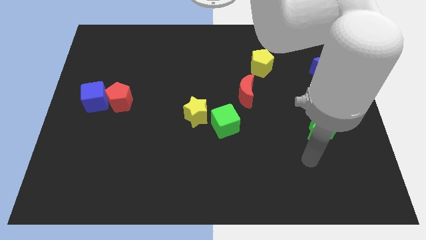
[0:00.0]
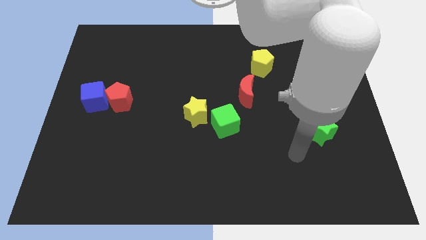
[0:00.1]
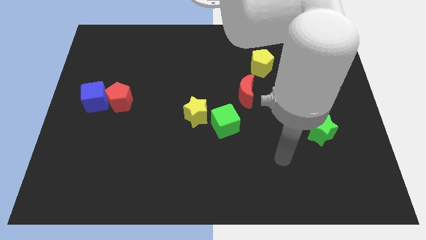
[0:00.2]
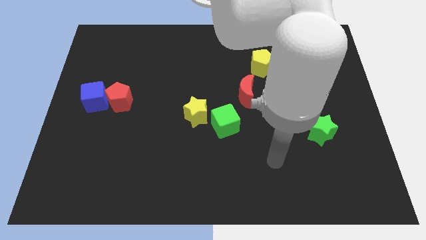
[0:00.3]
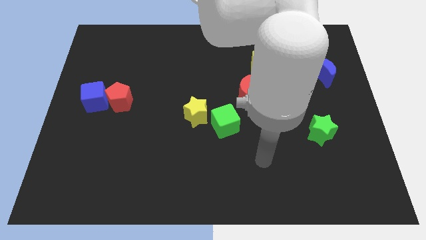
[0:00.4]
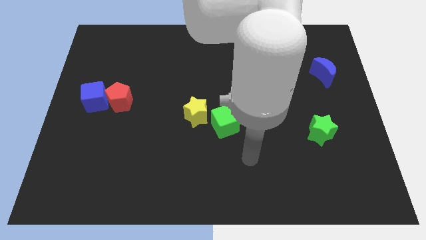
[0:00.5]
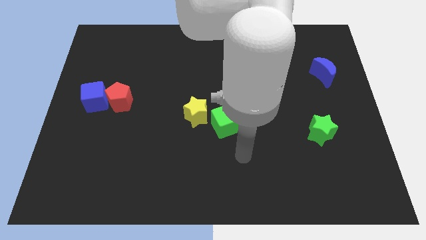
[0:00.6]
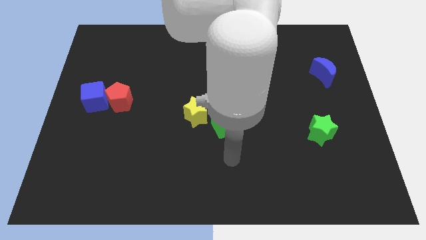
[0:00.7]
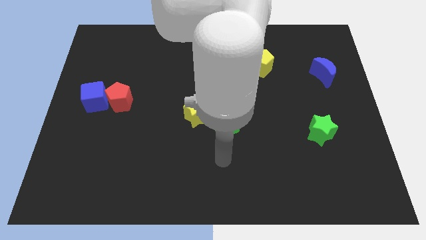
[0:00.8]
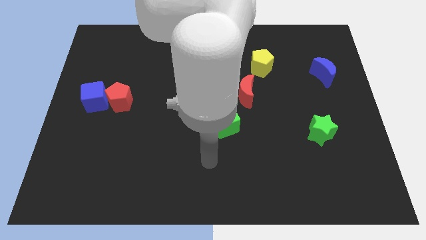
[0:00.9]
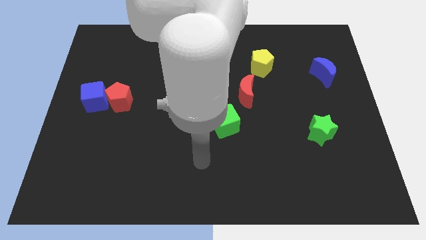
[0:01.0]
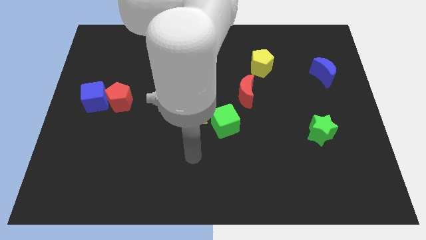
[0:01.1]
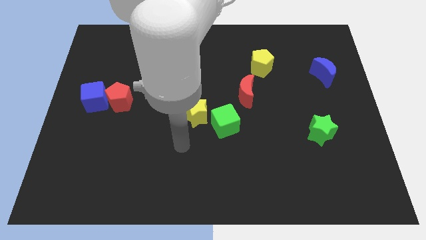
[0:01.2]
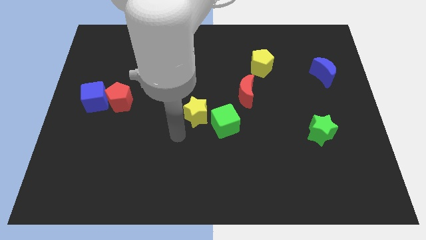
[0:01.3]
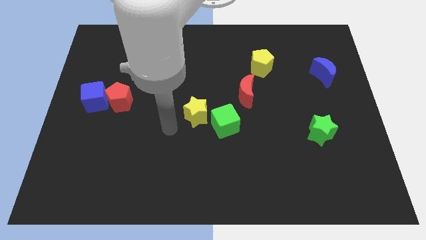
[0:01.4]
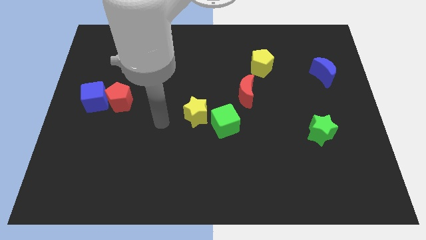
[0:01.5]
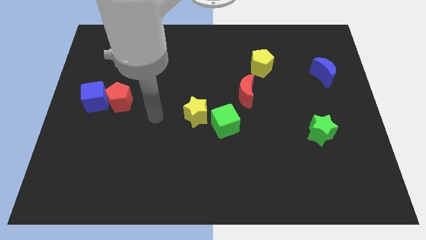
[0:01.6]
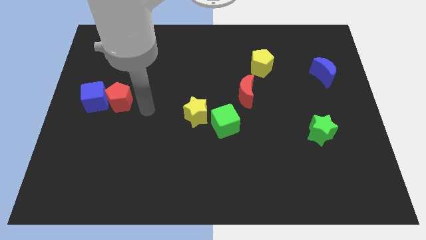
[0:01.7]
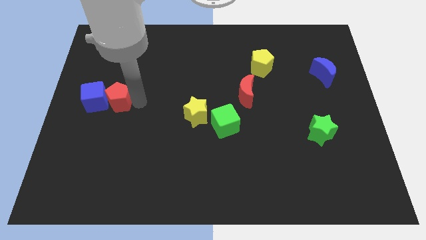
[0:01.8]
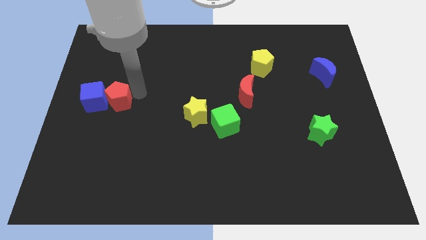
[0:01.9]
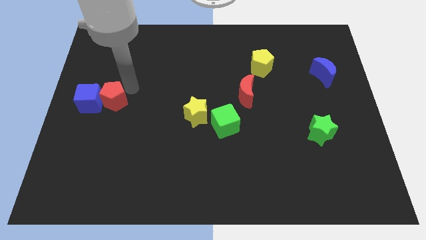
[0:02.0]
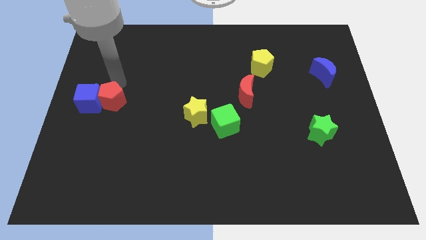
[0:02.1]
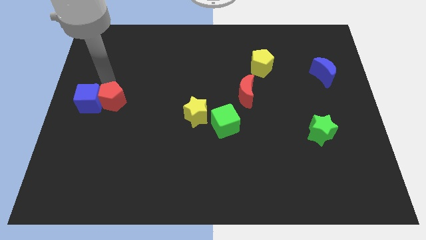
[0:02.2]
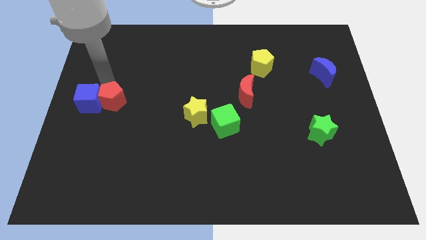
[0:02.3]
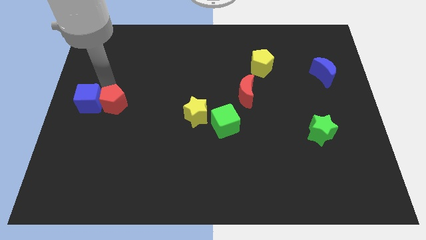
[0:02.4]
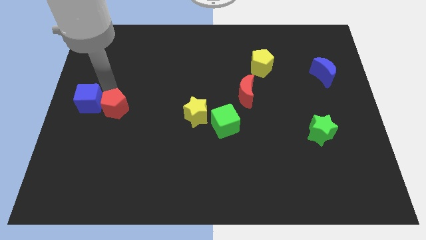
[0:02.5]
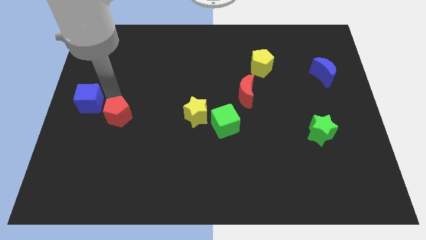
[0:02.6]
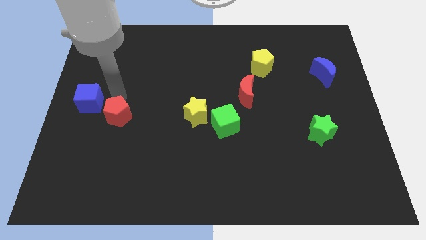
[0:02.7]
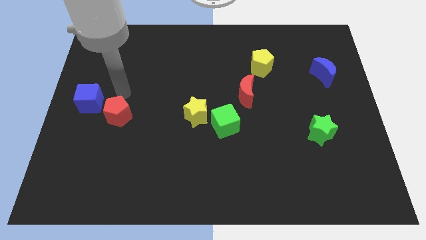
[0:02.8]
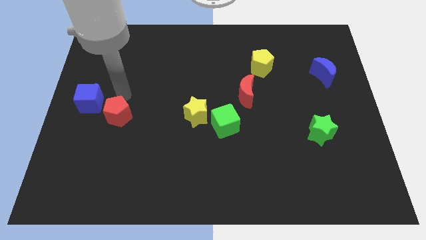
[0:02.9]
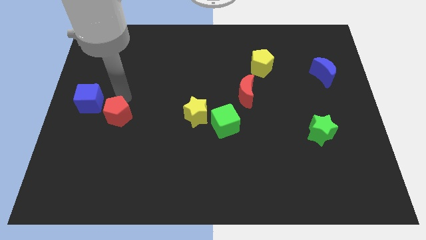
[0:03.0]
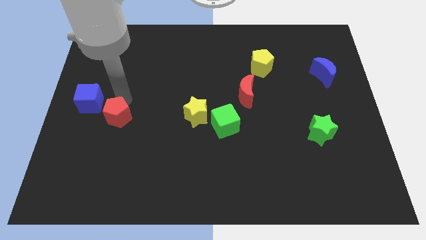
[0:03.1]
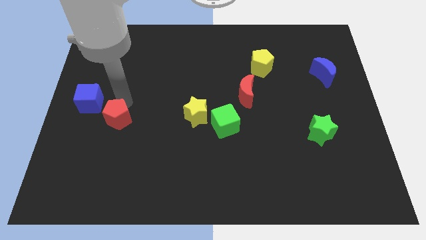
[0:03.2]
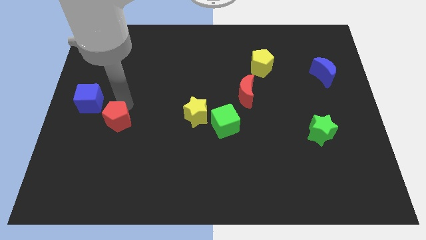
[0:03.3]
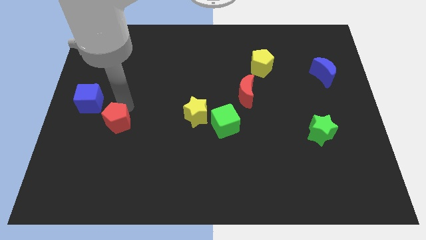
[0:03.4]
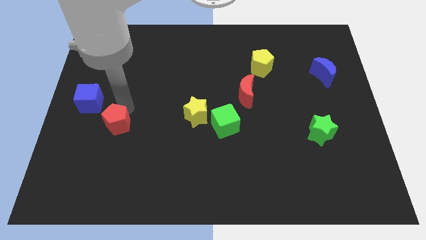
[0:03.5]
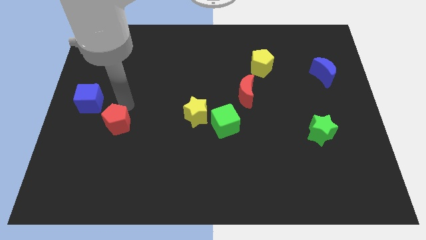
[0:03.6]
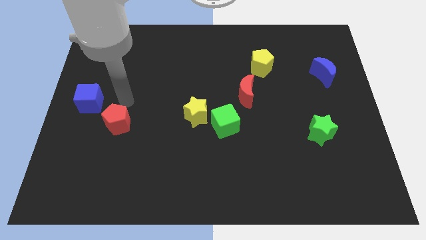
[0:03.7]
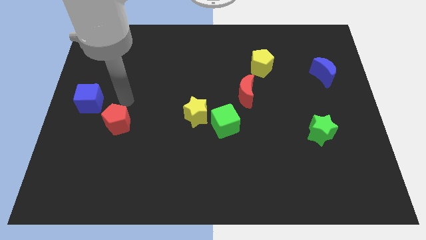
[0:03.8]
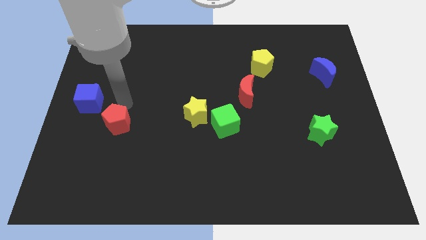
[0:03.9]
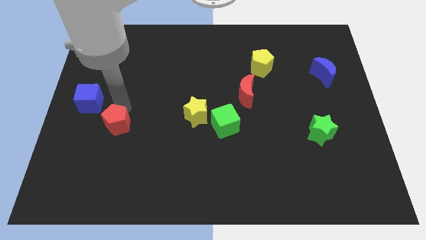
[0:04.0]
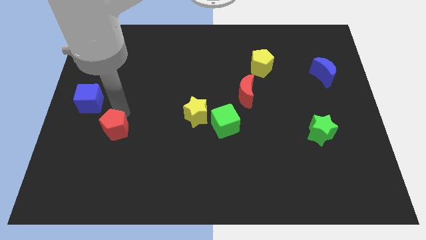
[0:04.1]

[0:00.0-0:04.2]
push the red pentagon down slightly

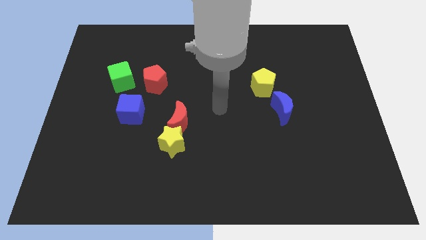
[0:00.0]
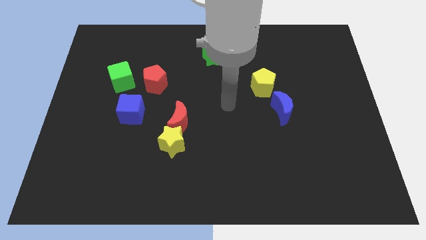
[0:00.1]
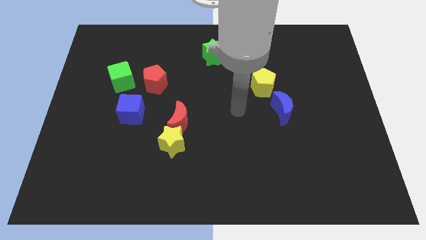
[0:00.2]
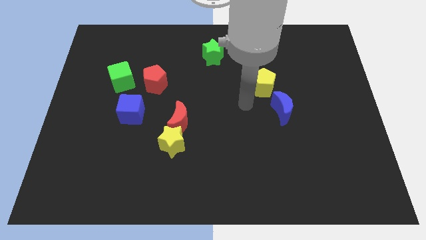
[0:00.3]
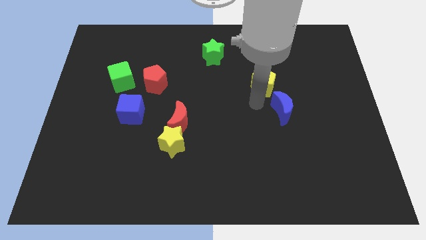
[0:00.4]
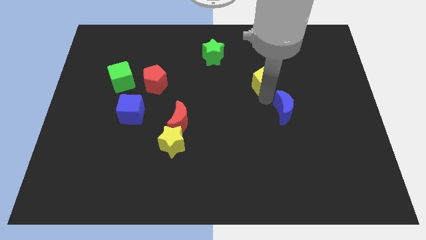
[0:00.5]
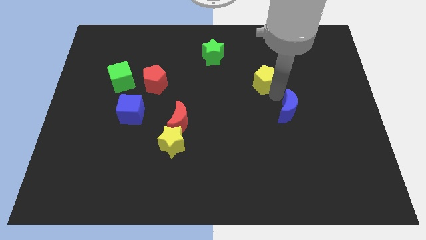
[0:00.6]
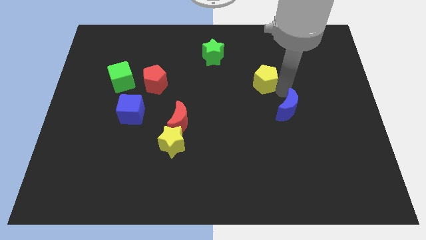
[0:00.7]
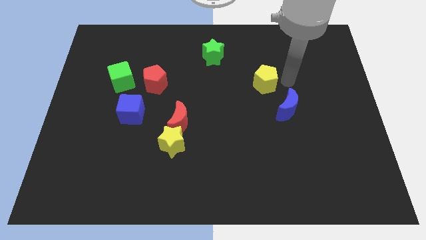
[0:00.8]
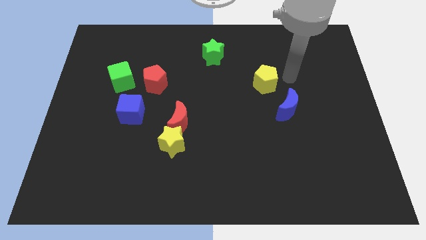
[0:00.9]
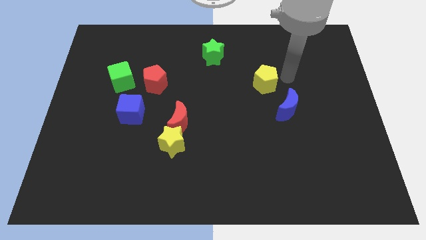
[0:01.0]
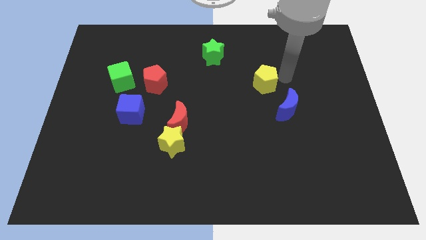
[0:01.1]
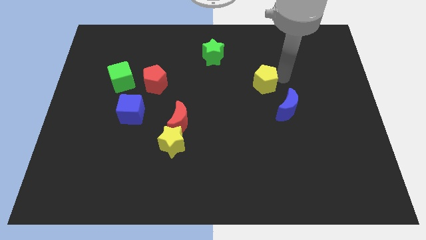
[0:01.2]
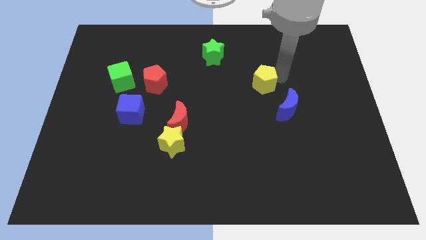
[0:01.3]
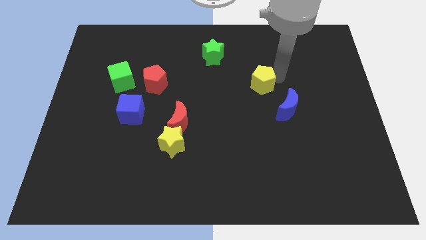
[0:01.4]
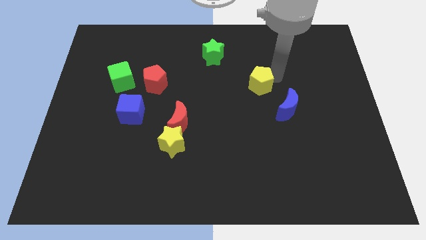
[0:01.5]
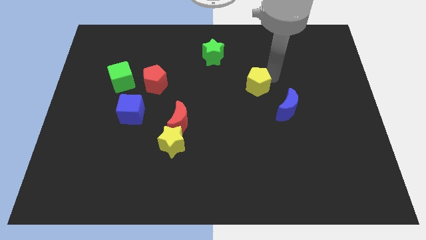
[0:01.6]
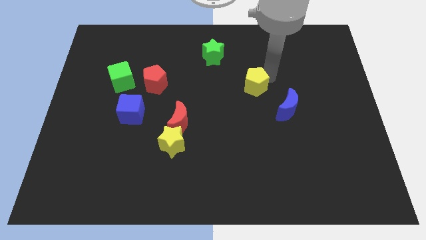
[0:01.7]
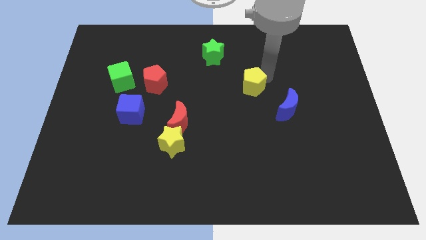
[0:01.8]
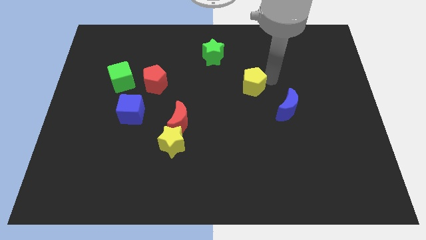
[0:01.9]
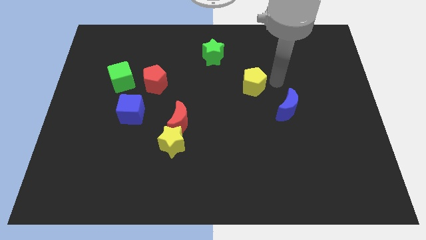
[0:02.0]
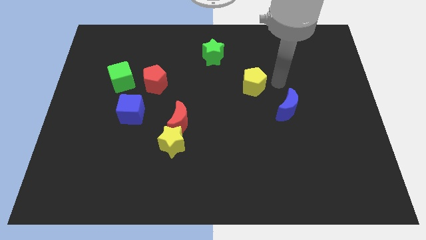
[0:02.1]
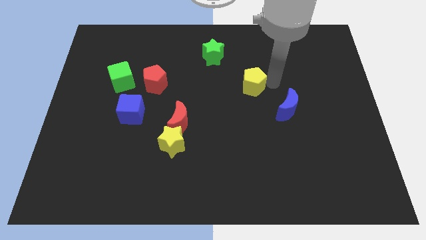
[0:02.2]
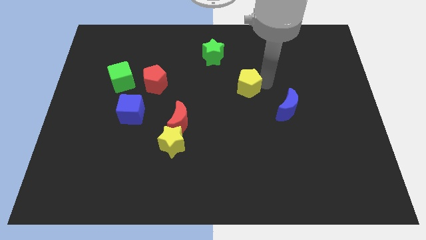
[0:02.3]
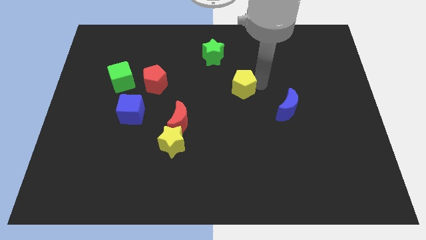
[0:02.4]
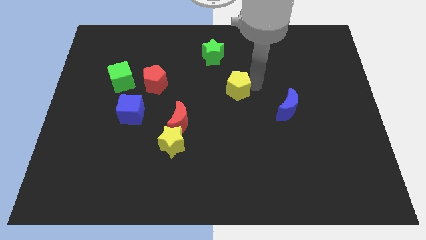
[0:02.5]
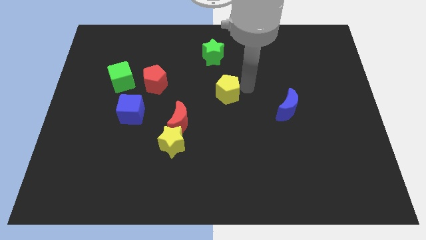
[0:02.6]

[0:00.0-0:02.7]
slide the yellow pentagon left a little

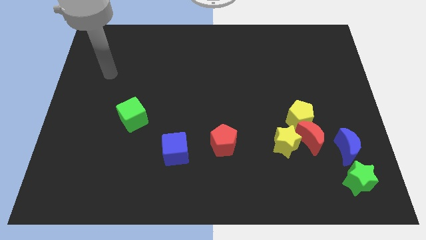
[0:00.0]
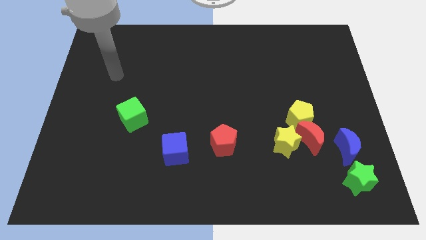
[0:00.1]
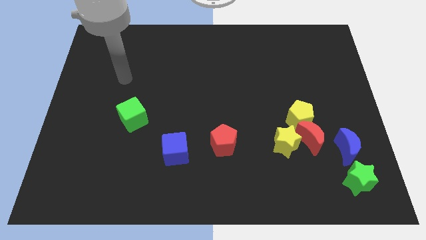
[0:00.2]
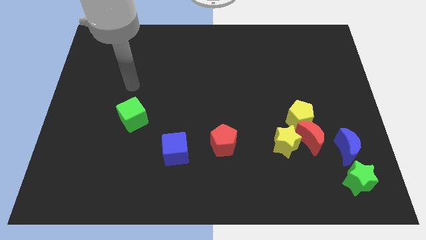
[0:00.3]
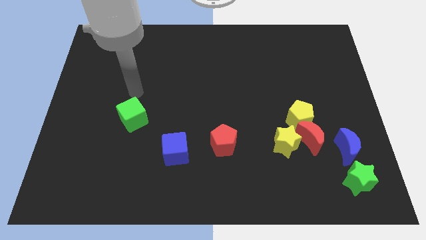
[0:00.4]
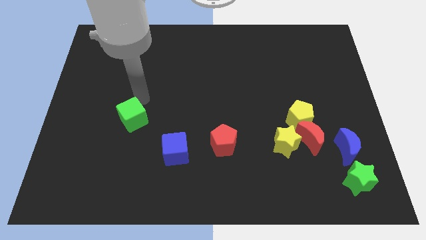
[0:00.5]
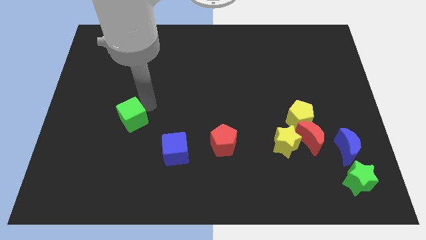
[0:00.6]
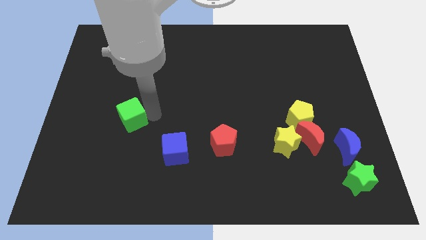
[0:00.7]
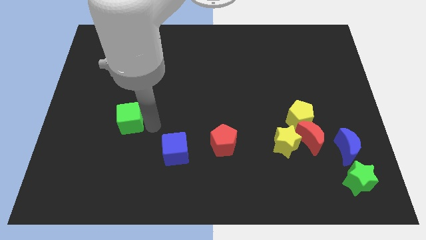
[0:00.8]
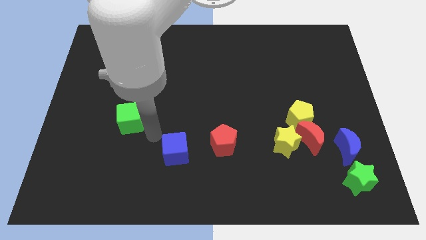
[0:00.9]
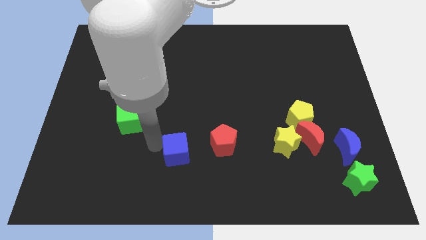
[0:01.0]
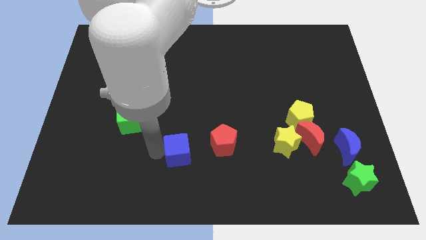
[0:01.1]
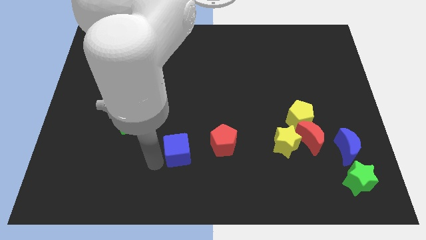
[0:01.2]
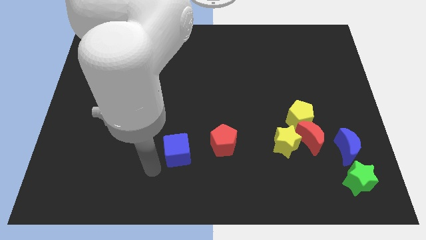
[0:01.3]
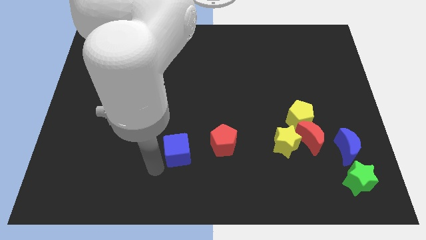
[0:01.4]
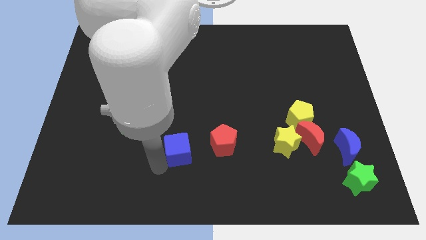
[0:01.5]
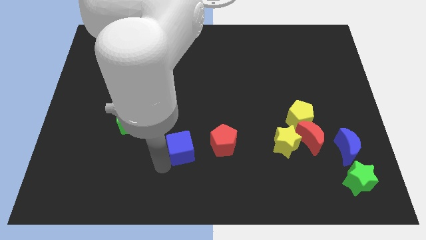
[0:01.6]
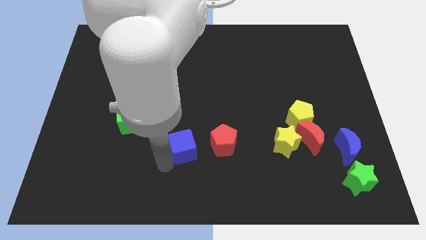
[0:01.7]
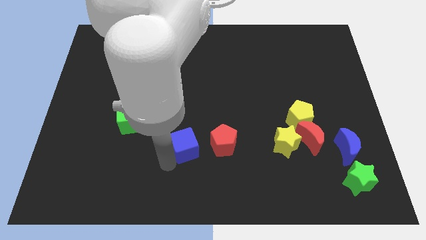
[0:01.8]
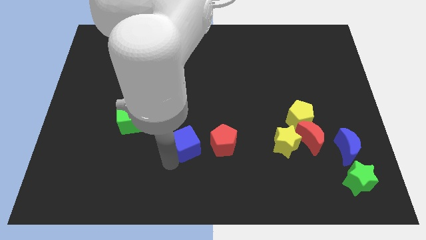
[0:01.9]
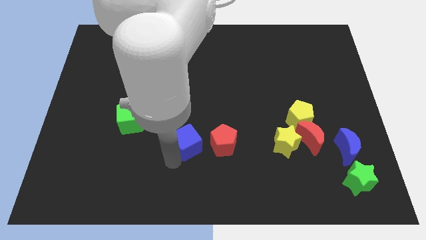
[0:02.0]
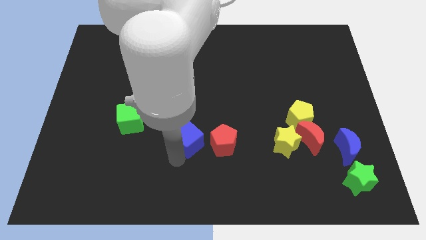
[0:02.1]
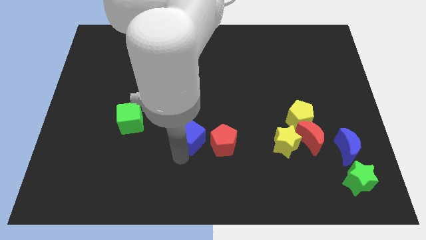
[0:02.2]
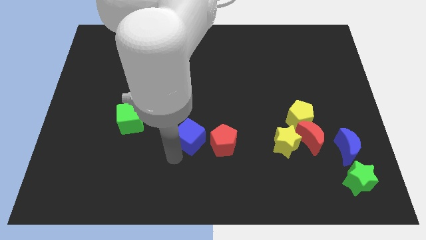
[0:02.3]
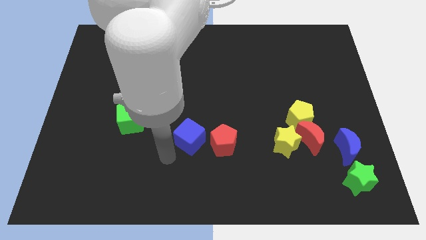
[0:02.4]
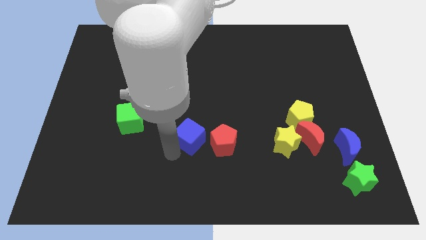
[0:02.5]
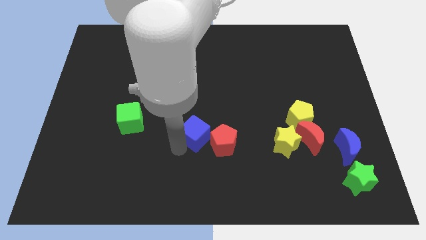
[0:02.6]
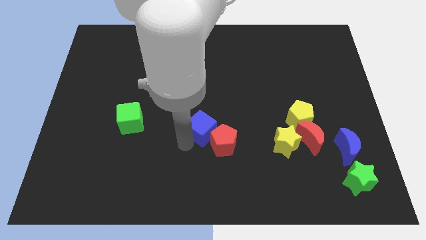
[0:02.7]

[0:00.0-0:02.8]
push the blue cube up and then to the right somewhat
